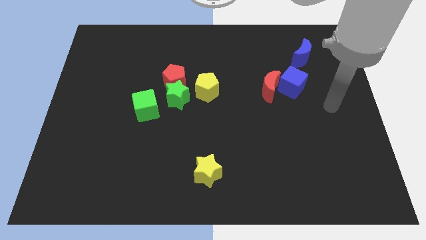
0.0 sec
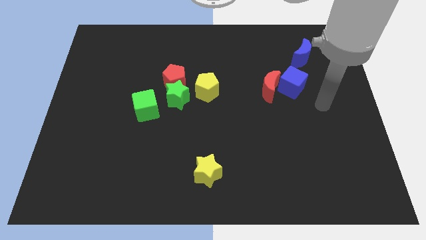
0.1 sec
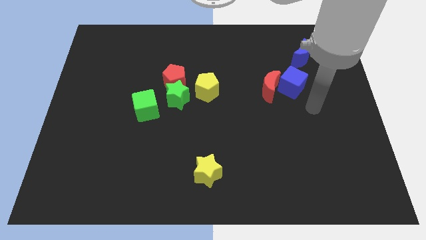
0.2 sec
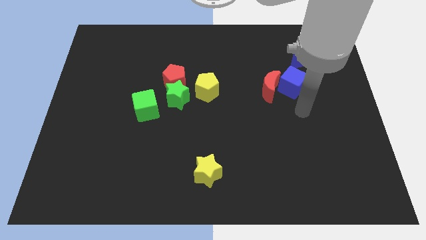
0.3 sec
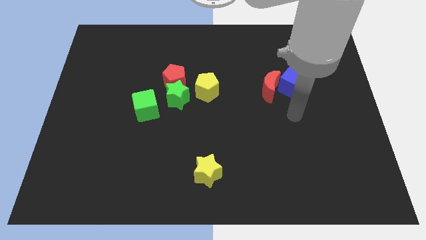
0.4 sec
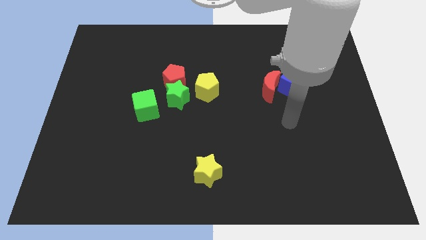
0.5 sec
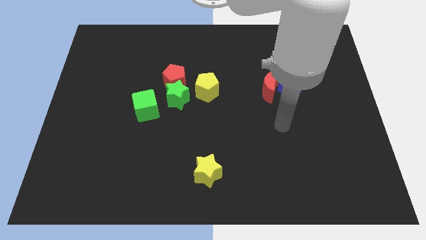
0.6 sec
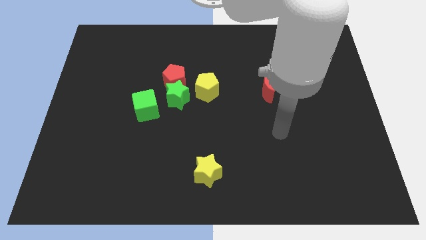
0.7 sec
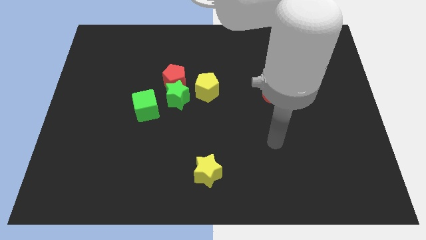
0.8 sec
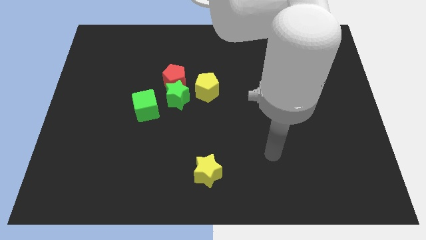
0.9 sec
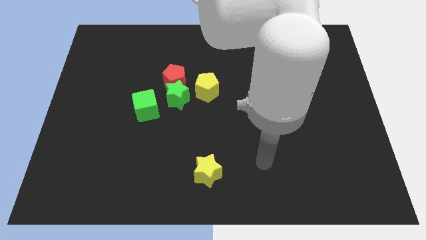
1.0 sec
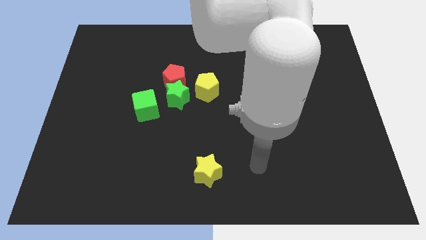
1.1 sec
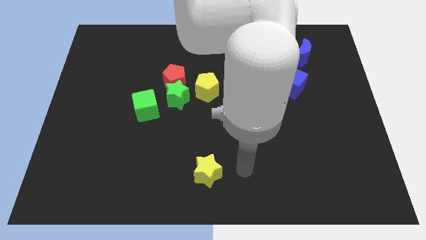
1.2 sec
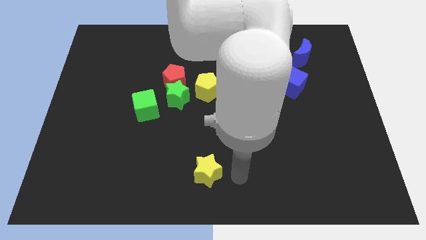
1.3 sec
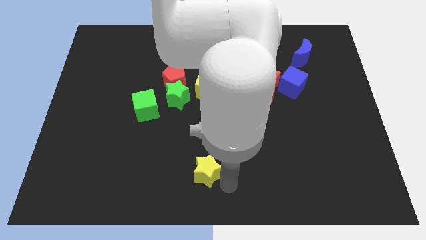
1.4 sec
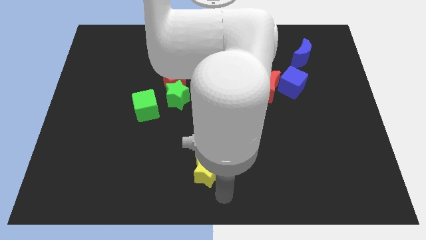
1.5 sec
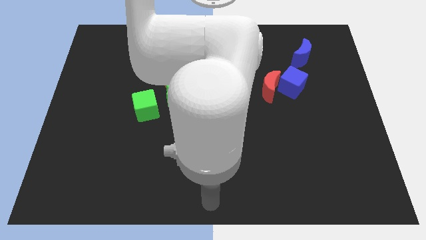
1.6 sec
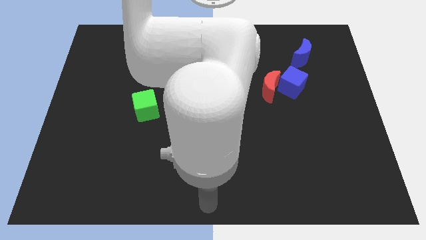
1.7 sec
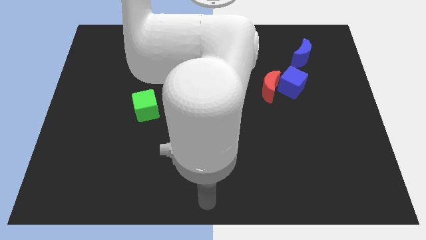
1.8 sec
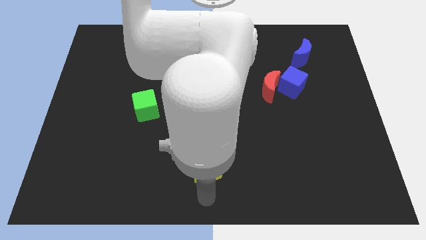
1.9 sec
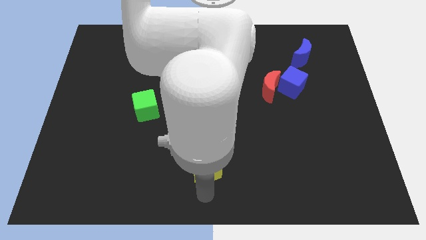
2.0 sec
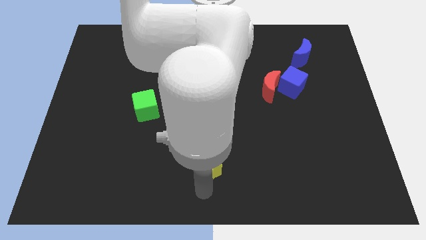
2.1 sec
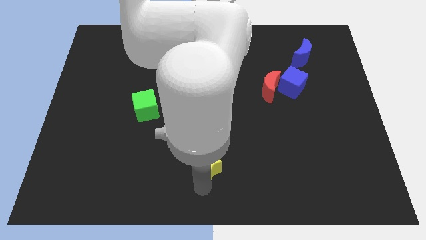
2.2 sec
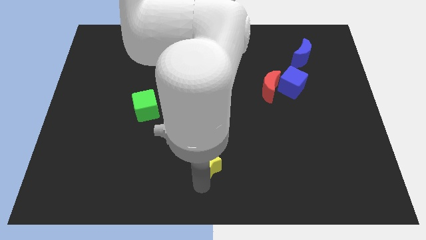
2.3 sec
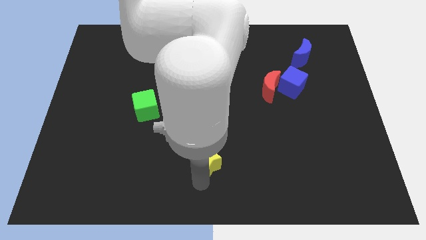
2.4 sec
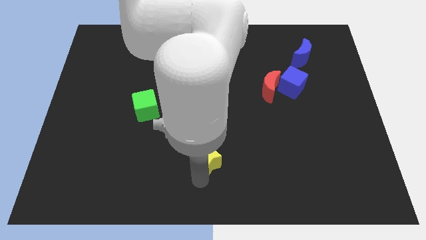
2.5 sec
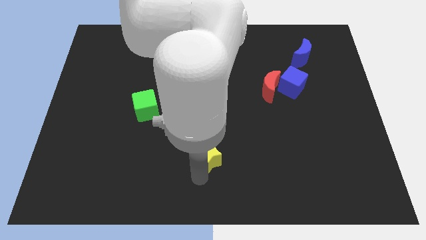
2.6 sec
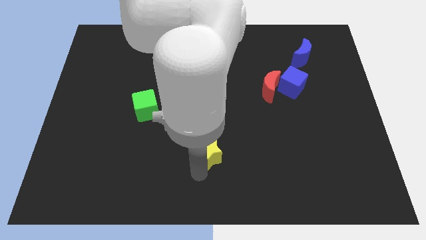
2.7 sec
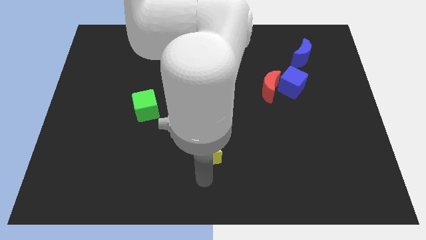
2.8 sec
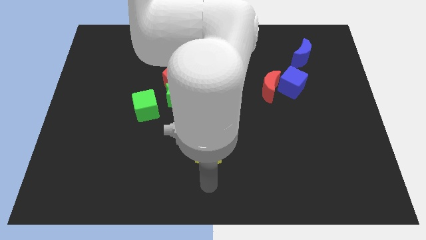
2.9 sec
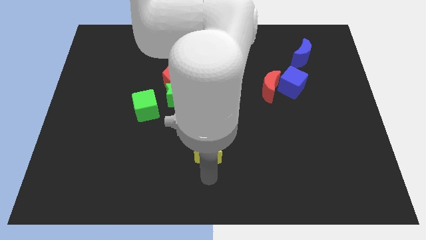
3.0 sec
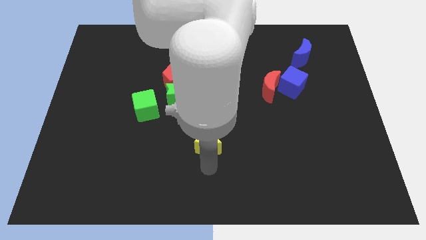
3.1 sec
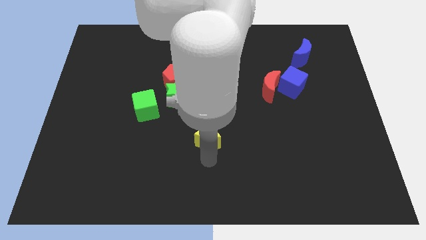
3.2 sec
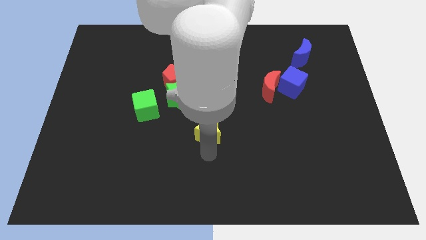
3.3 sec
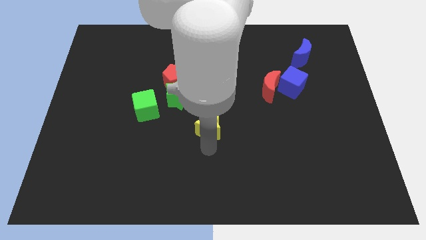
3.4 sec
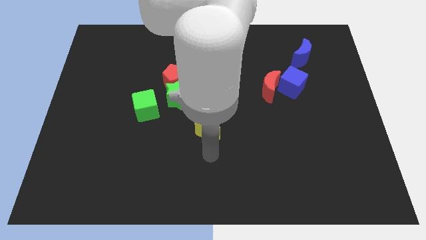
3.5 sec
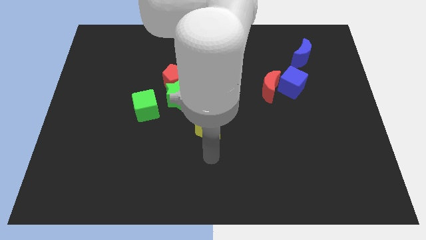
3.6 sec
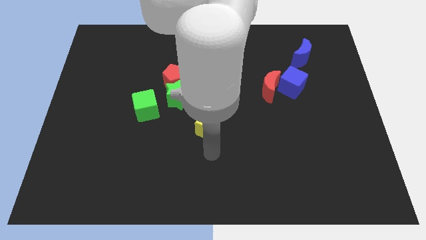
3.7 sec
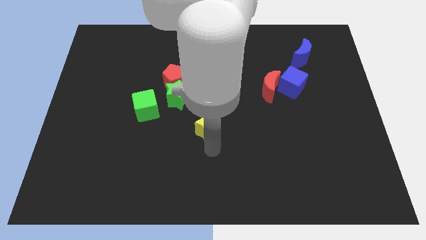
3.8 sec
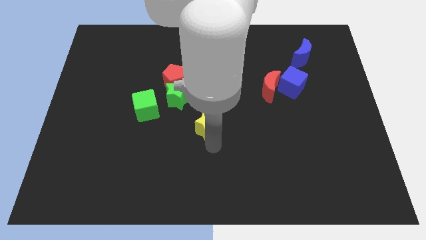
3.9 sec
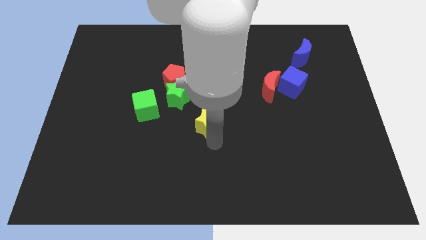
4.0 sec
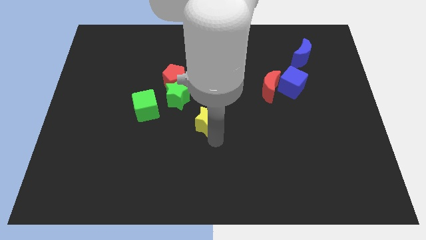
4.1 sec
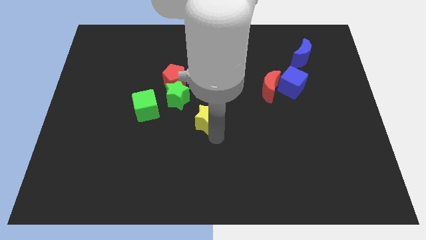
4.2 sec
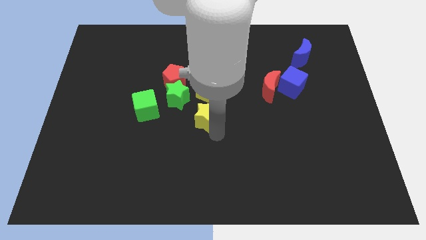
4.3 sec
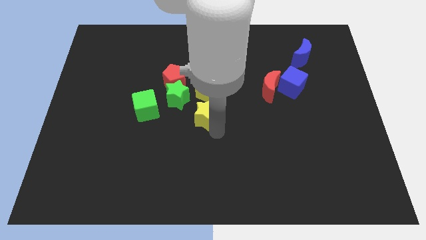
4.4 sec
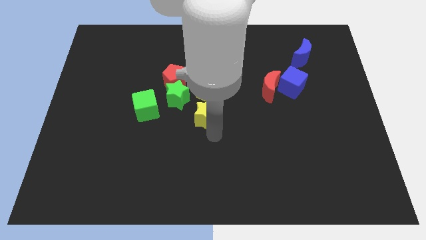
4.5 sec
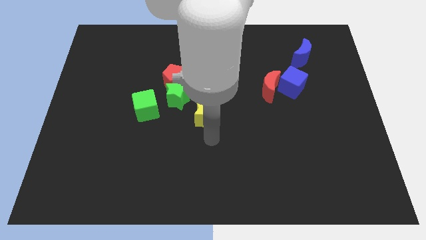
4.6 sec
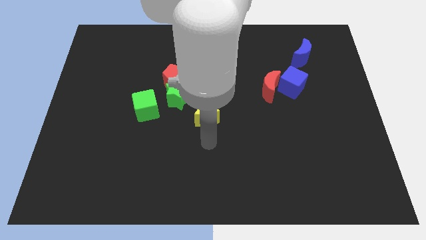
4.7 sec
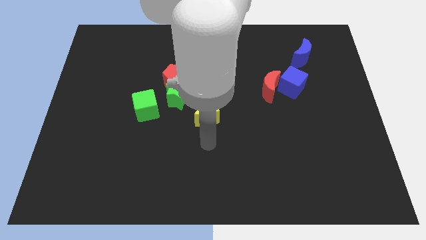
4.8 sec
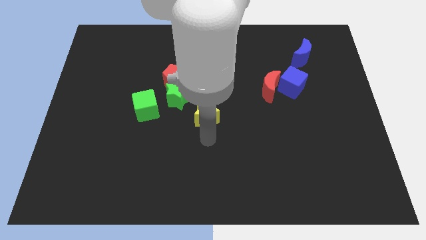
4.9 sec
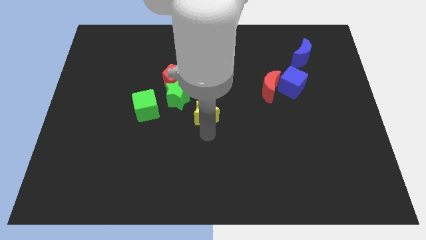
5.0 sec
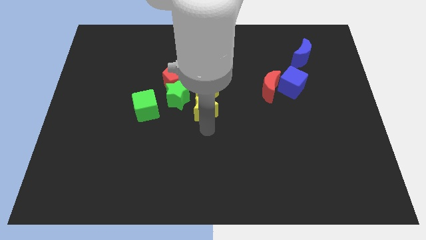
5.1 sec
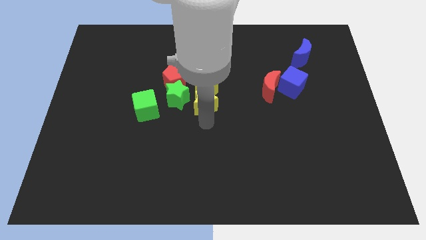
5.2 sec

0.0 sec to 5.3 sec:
put the yellow star towards the yellow pentagon

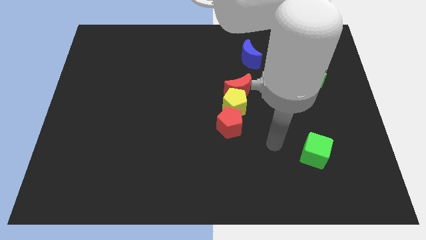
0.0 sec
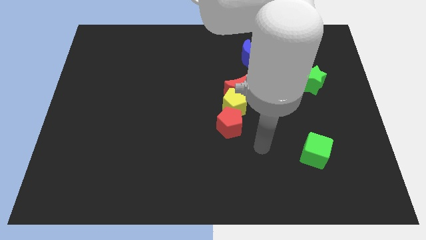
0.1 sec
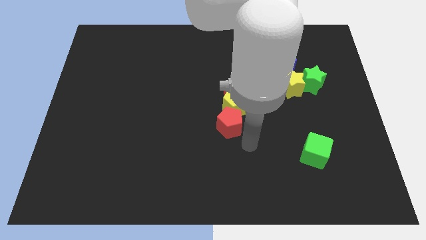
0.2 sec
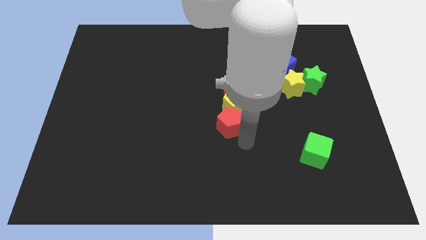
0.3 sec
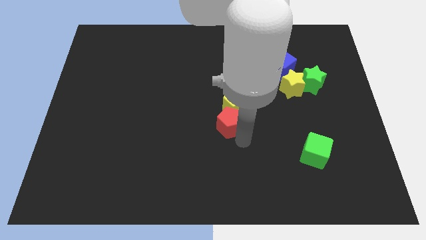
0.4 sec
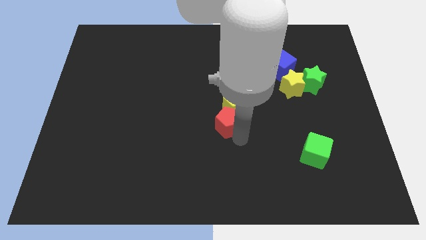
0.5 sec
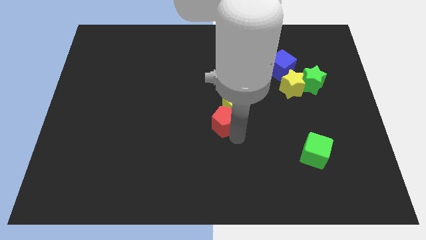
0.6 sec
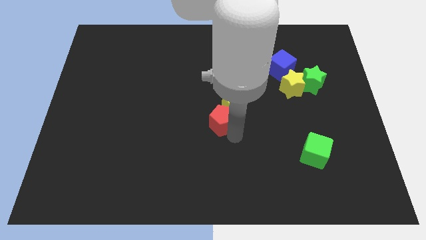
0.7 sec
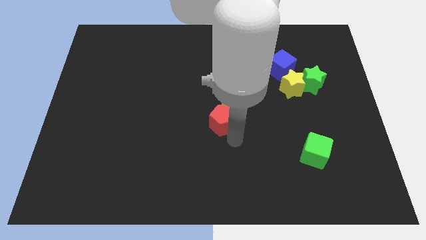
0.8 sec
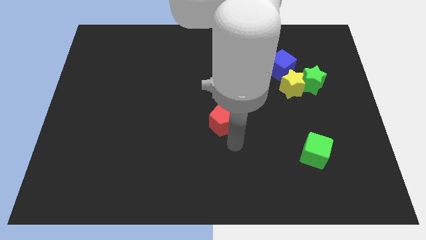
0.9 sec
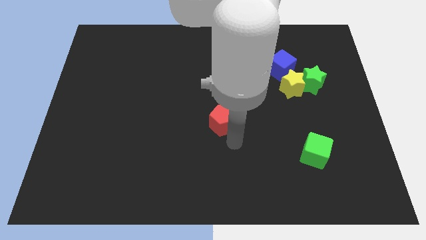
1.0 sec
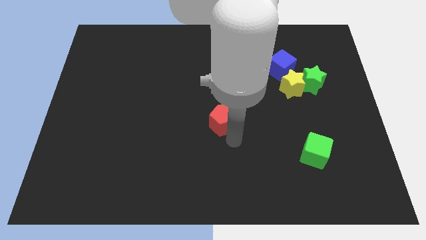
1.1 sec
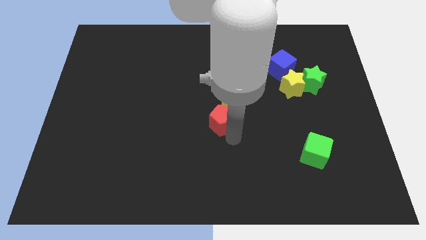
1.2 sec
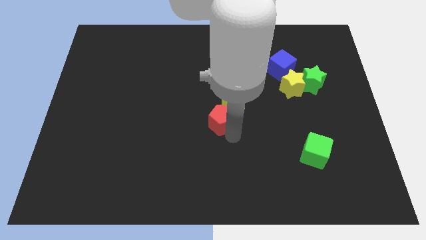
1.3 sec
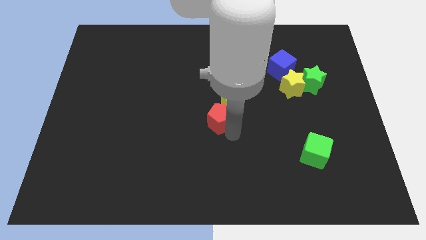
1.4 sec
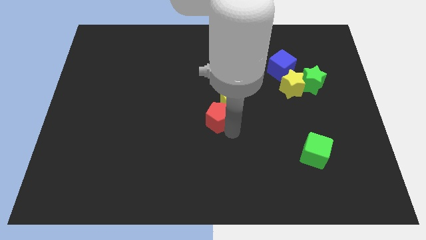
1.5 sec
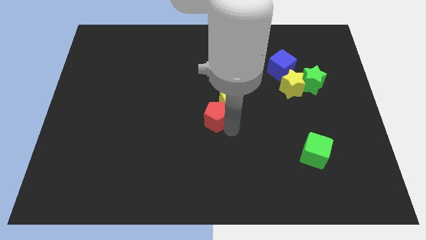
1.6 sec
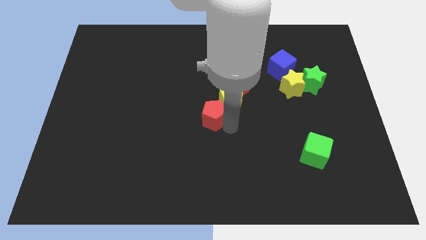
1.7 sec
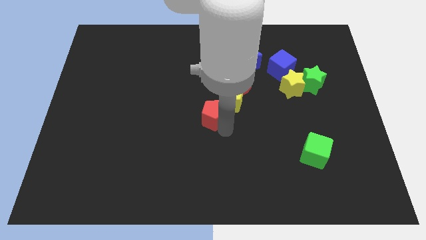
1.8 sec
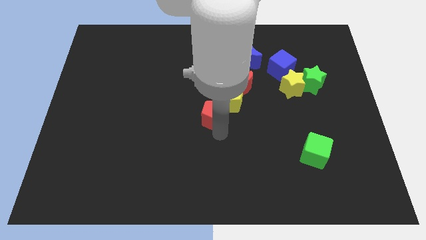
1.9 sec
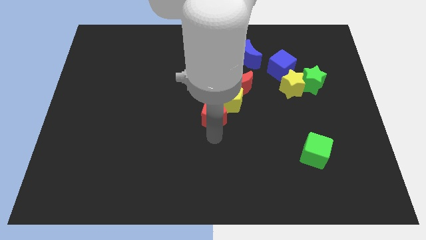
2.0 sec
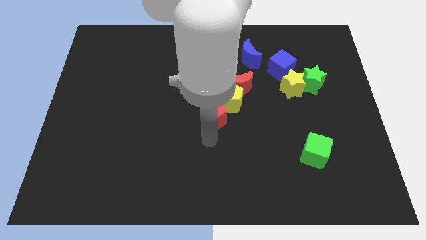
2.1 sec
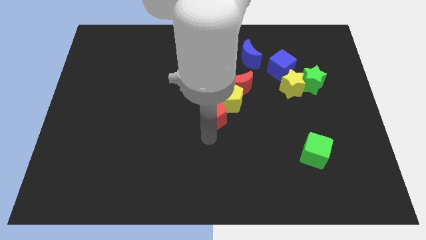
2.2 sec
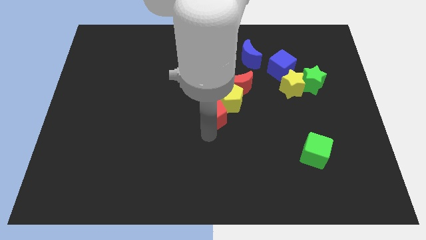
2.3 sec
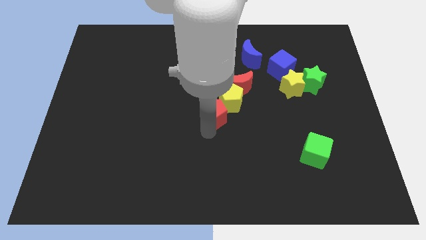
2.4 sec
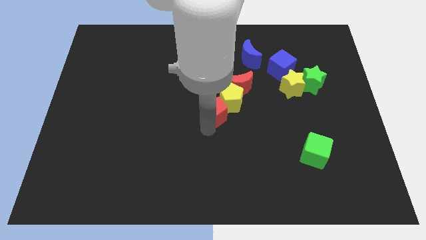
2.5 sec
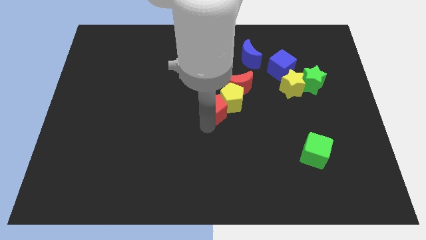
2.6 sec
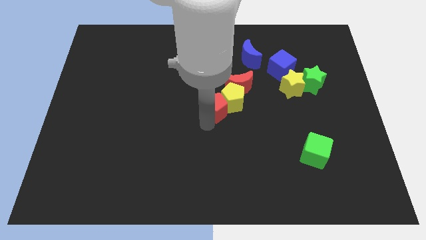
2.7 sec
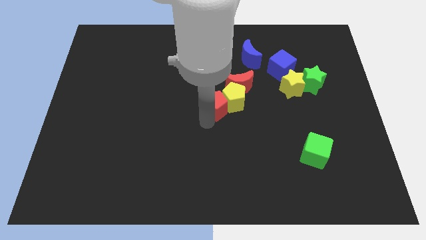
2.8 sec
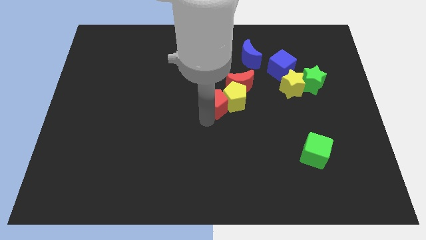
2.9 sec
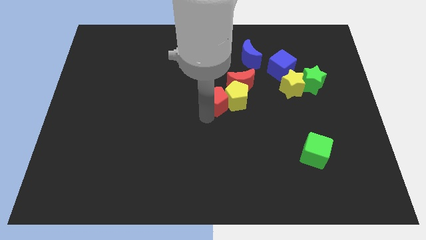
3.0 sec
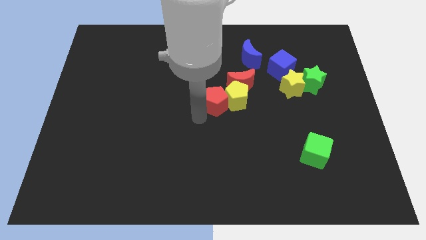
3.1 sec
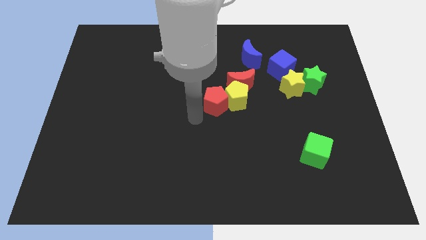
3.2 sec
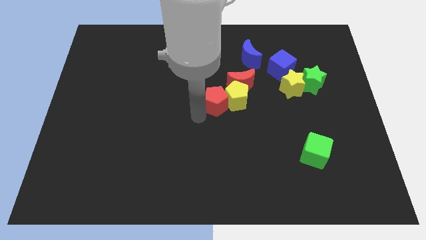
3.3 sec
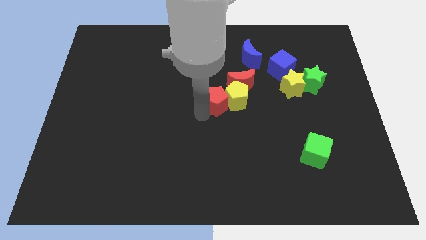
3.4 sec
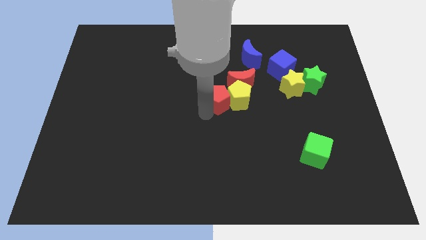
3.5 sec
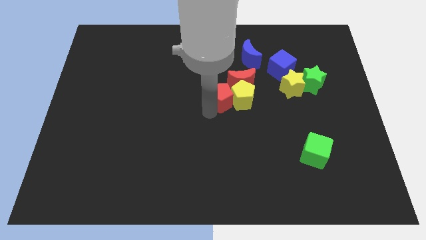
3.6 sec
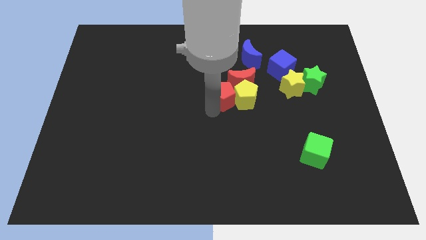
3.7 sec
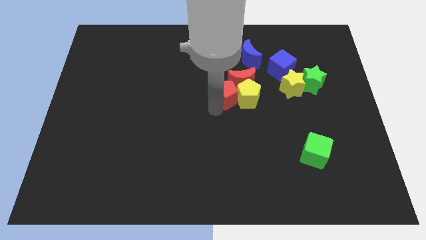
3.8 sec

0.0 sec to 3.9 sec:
move the red pentagon next to the red moon
